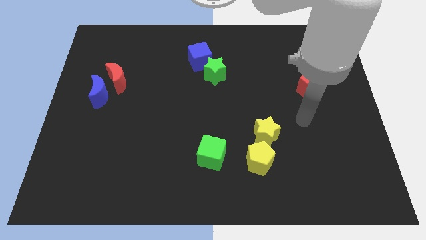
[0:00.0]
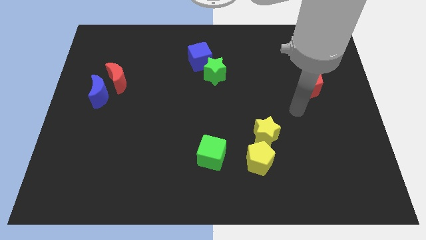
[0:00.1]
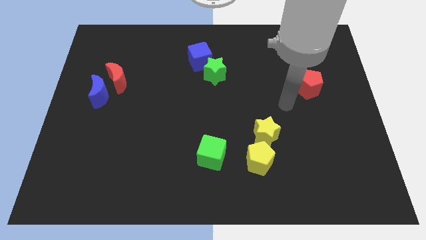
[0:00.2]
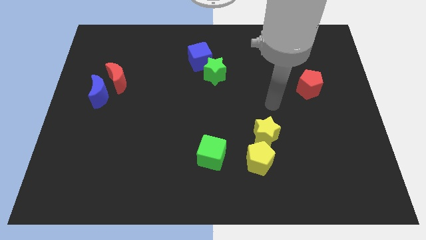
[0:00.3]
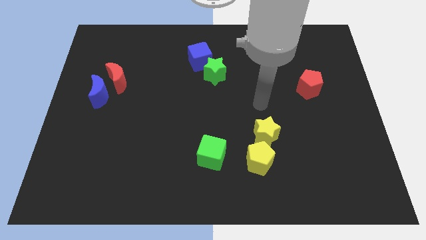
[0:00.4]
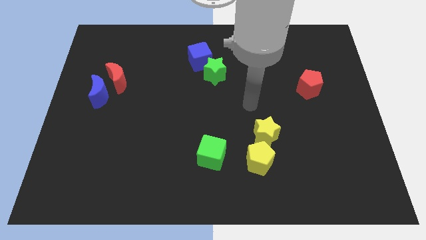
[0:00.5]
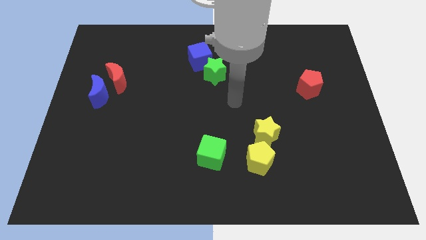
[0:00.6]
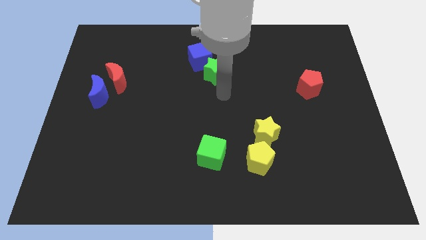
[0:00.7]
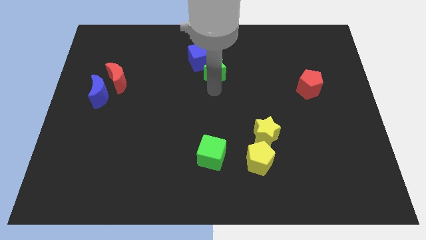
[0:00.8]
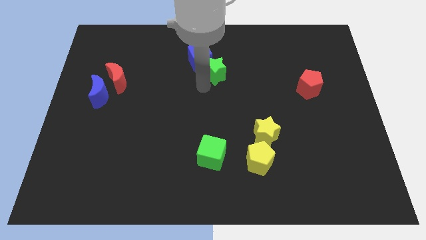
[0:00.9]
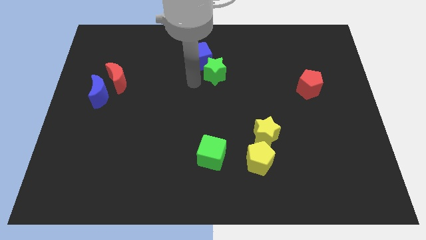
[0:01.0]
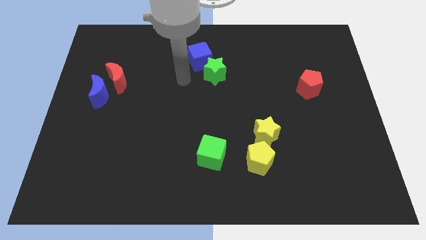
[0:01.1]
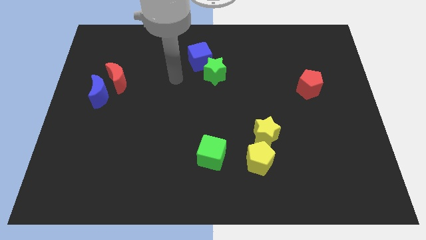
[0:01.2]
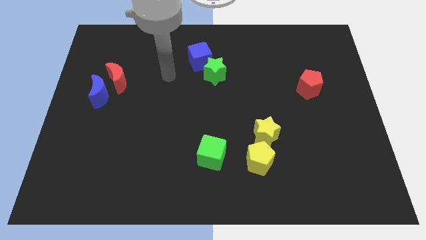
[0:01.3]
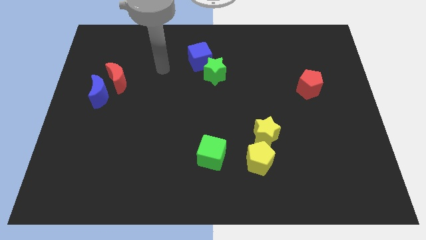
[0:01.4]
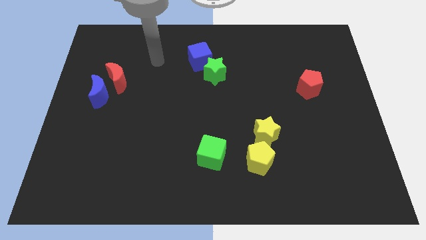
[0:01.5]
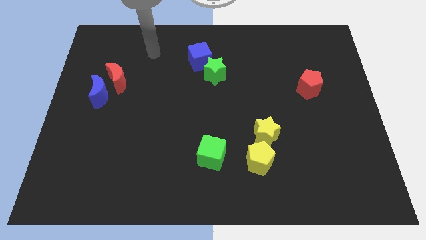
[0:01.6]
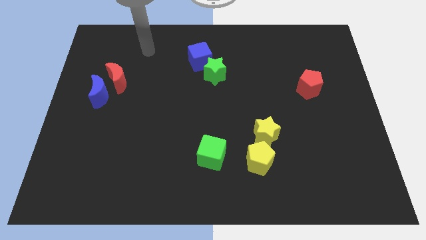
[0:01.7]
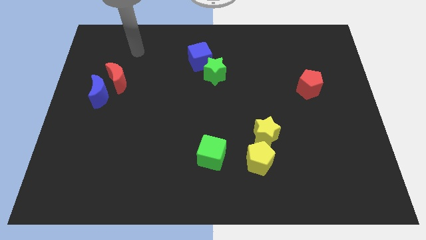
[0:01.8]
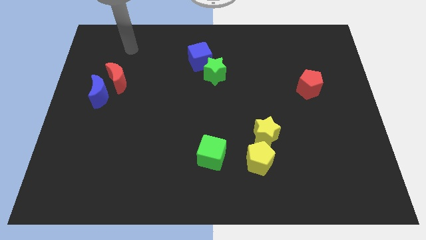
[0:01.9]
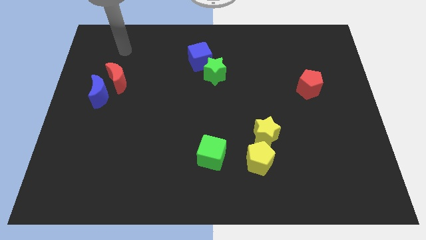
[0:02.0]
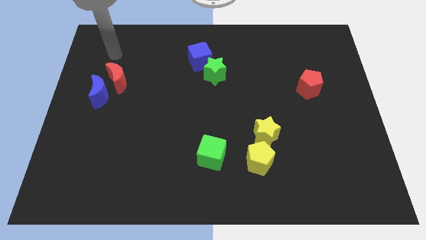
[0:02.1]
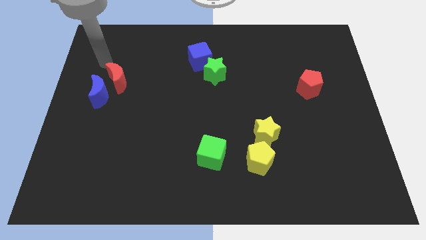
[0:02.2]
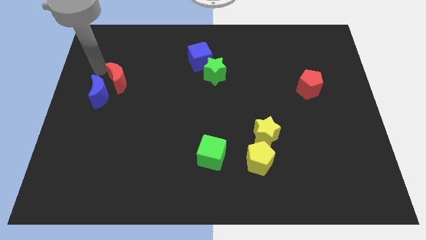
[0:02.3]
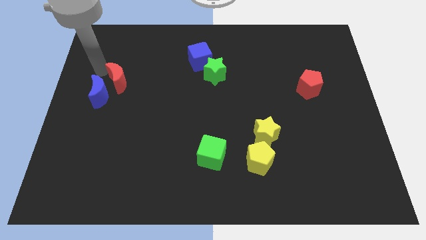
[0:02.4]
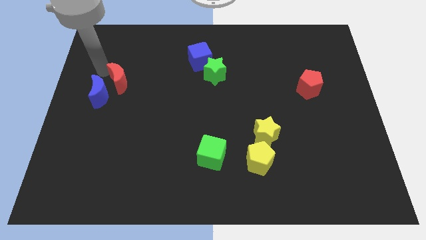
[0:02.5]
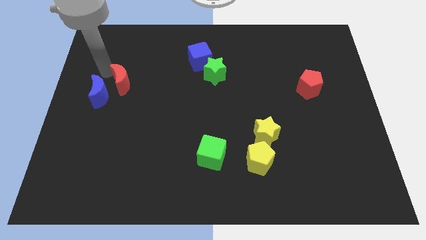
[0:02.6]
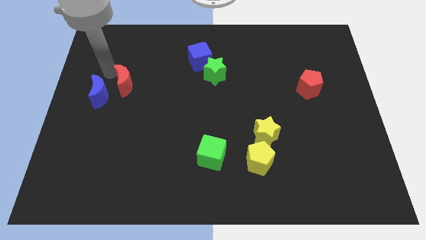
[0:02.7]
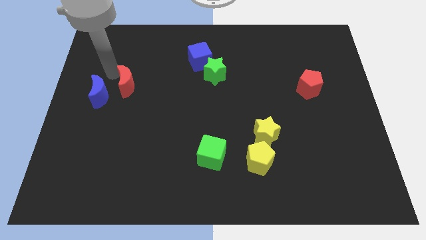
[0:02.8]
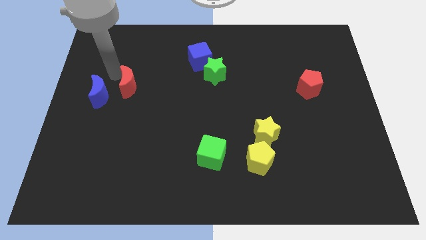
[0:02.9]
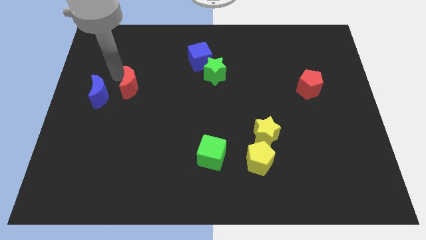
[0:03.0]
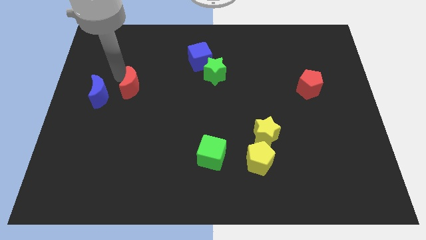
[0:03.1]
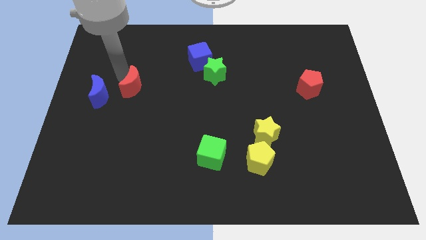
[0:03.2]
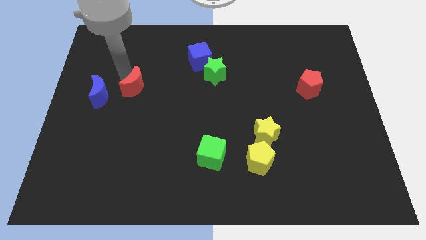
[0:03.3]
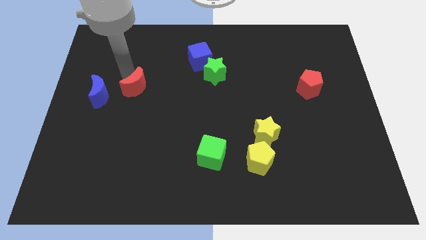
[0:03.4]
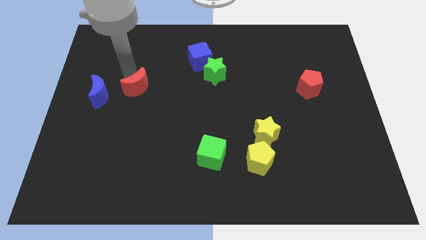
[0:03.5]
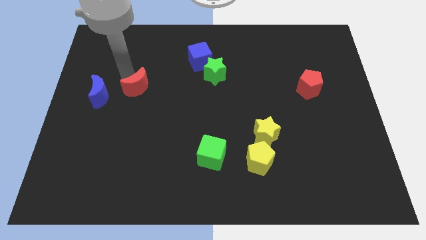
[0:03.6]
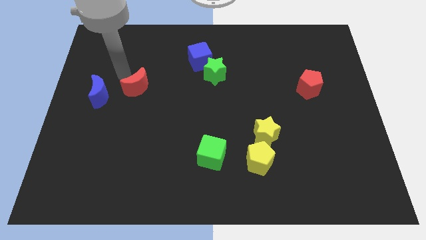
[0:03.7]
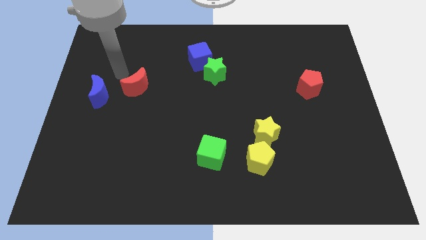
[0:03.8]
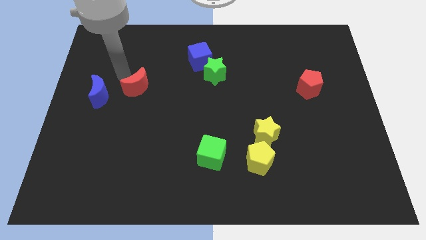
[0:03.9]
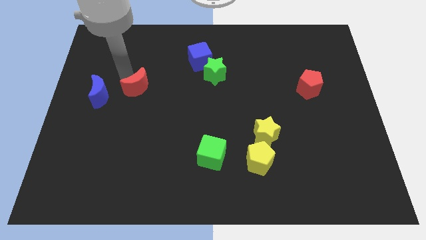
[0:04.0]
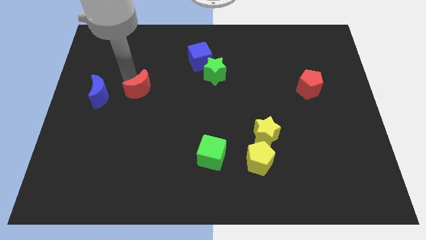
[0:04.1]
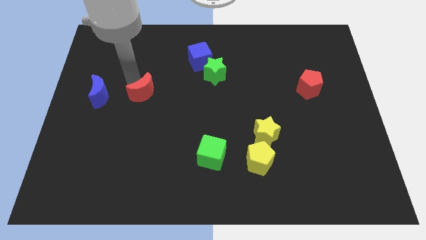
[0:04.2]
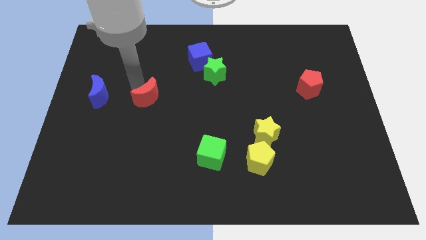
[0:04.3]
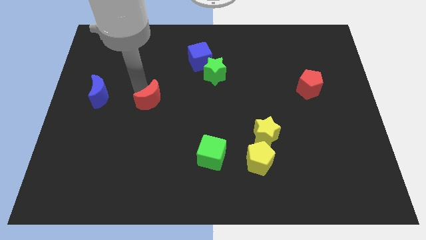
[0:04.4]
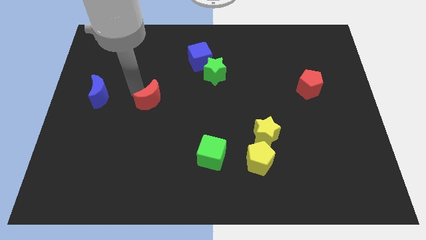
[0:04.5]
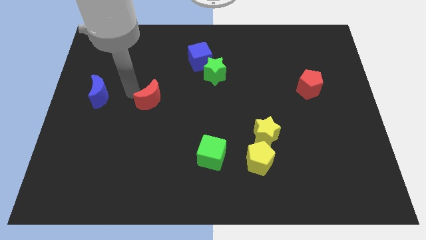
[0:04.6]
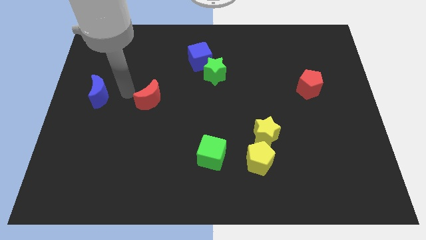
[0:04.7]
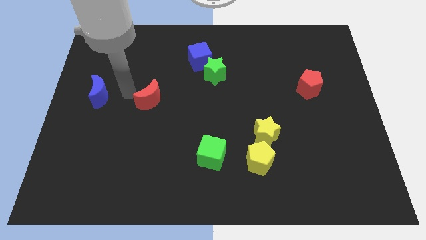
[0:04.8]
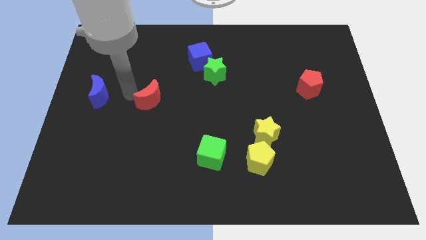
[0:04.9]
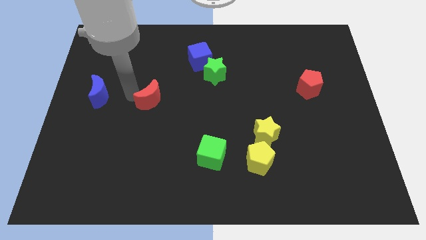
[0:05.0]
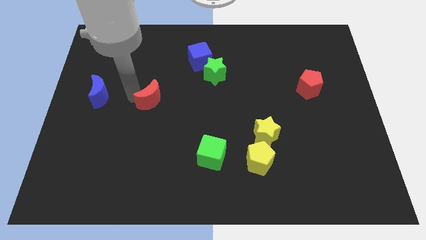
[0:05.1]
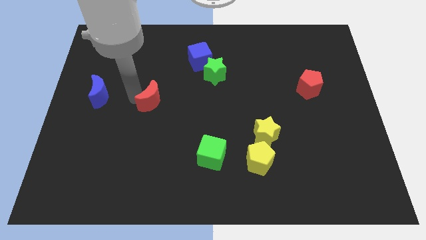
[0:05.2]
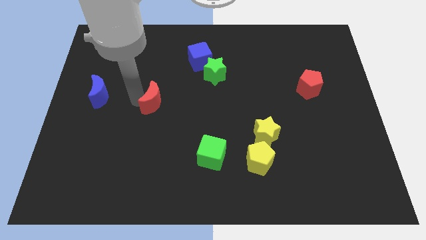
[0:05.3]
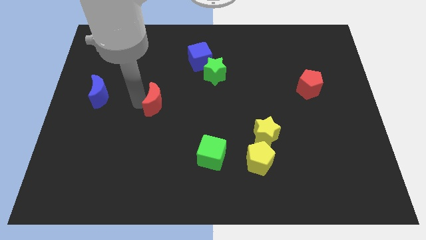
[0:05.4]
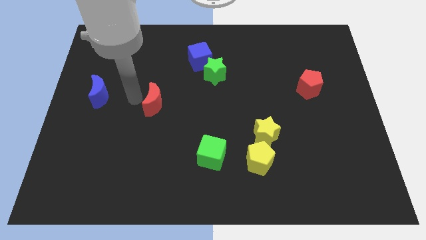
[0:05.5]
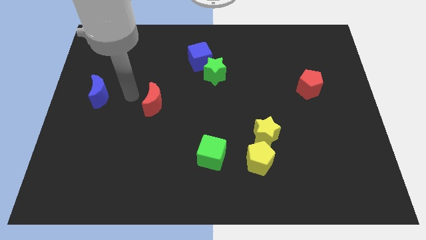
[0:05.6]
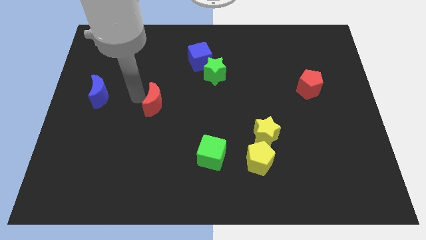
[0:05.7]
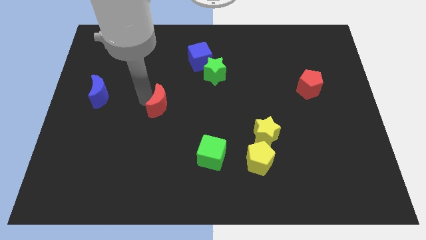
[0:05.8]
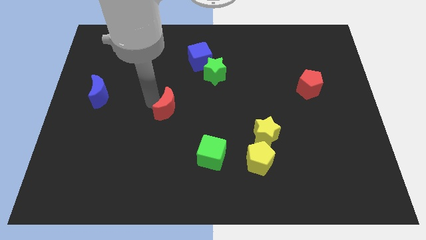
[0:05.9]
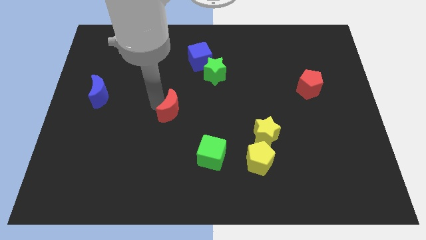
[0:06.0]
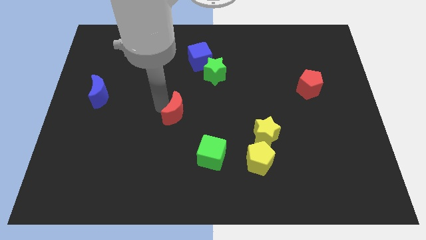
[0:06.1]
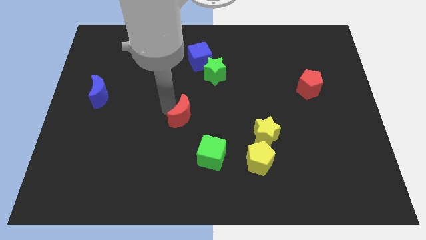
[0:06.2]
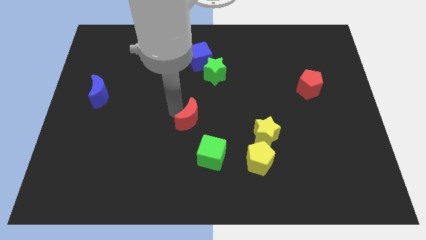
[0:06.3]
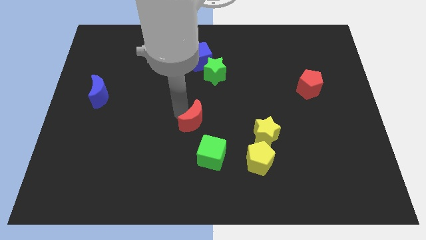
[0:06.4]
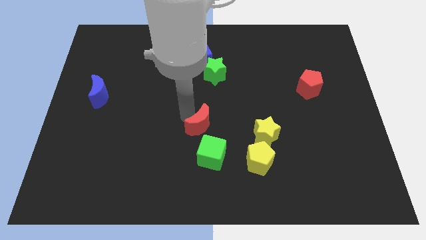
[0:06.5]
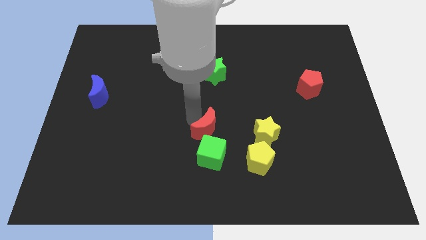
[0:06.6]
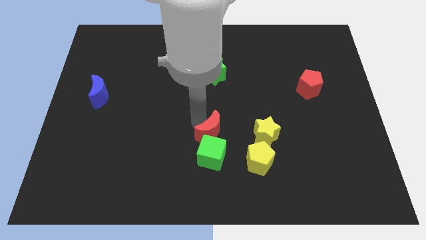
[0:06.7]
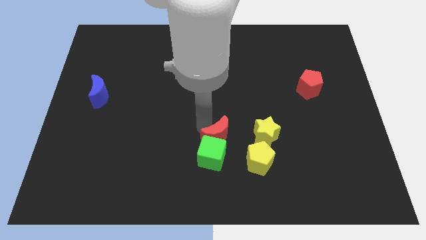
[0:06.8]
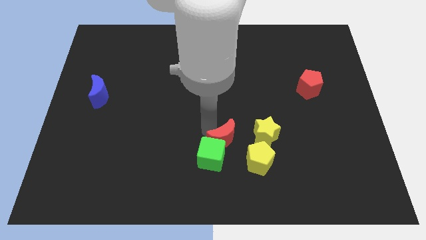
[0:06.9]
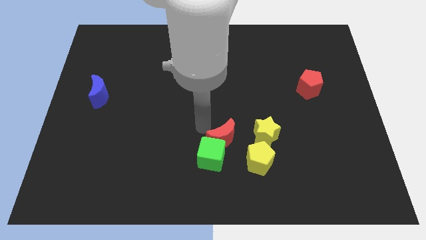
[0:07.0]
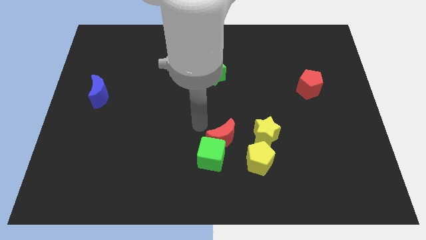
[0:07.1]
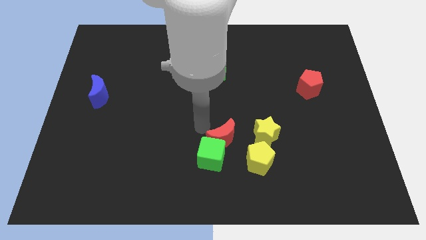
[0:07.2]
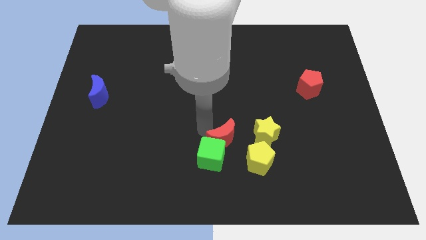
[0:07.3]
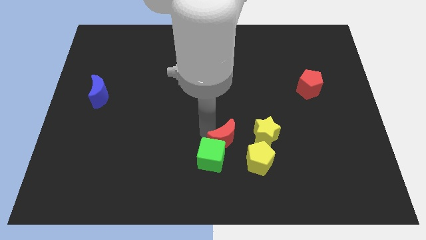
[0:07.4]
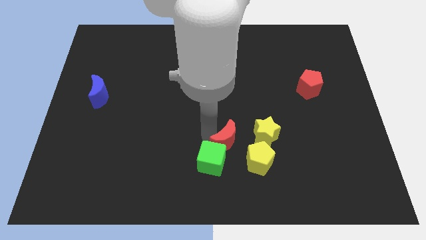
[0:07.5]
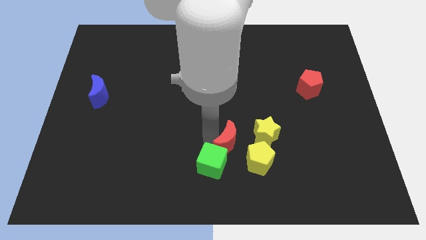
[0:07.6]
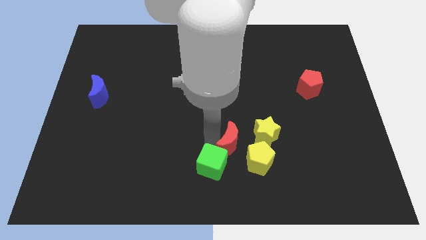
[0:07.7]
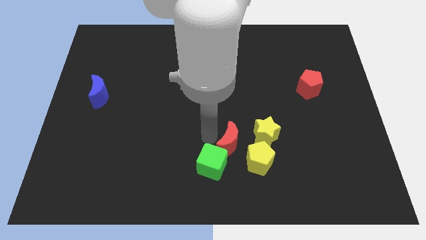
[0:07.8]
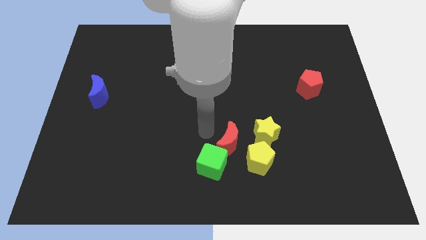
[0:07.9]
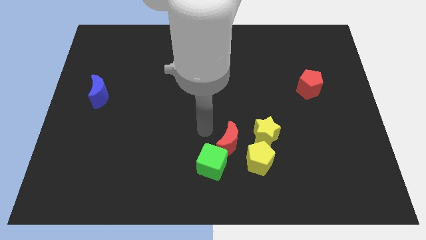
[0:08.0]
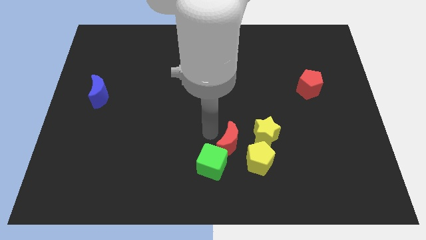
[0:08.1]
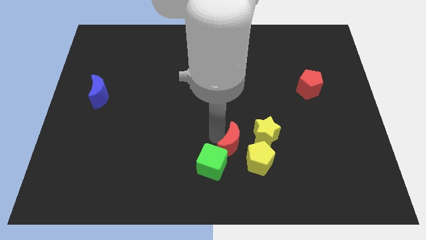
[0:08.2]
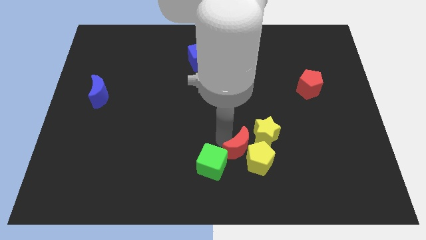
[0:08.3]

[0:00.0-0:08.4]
move the red moon towards the yellow pentagon
